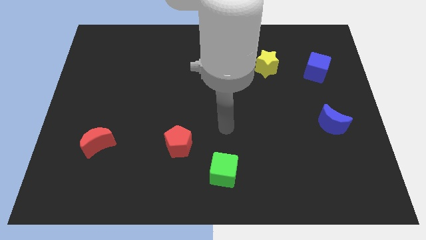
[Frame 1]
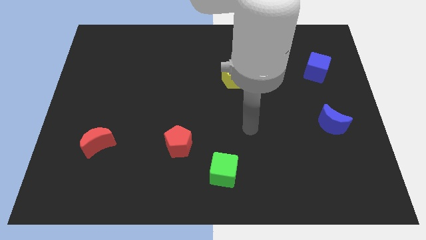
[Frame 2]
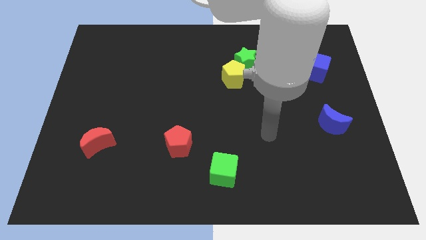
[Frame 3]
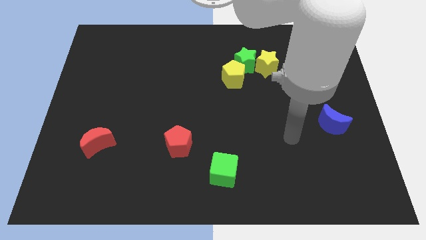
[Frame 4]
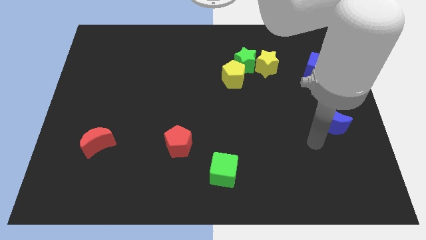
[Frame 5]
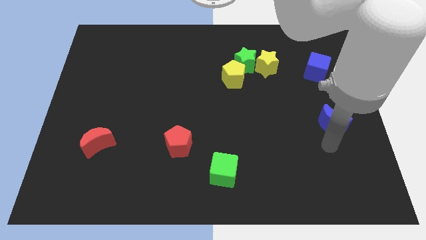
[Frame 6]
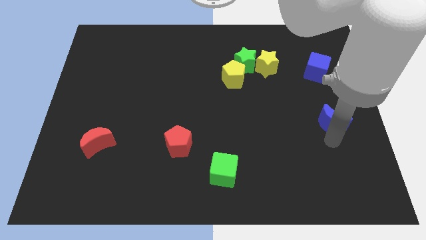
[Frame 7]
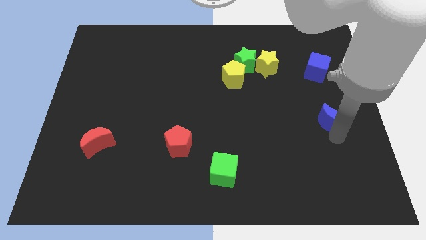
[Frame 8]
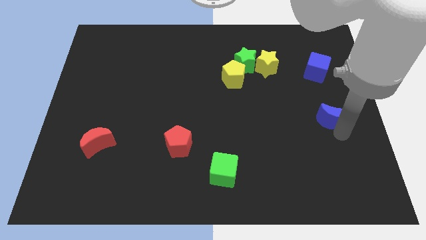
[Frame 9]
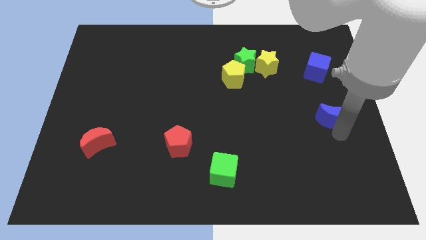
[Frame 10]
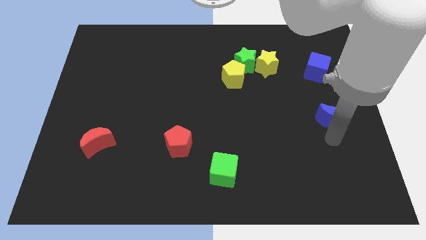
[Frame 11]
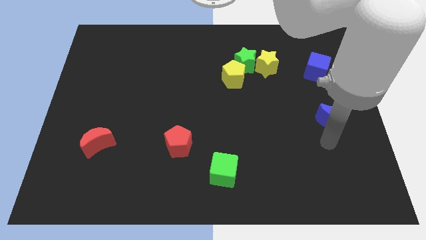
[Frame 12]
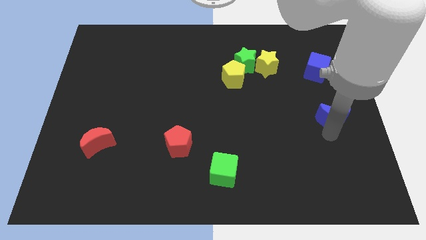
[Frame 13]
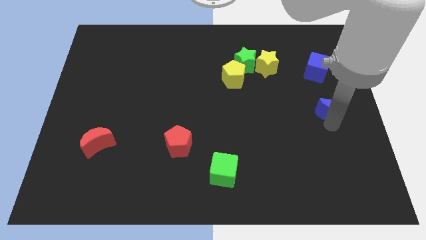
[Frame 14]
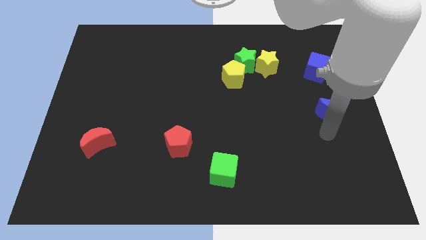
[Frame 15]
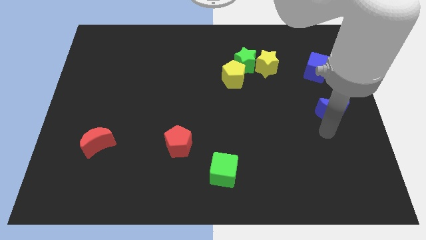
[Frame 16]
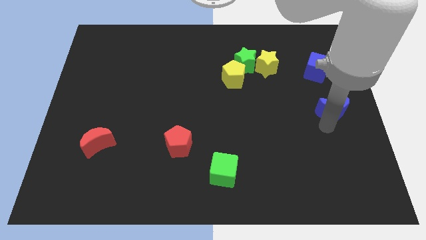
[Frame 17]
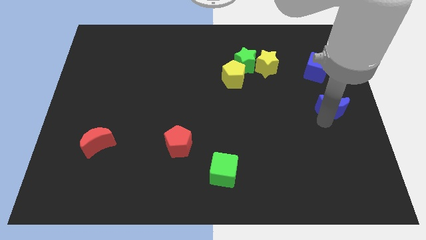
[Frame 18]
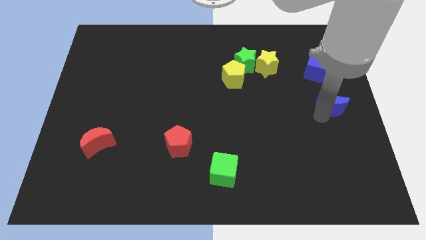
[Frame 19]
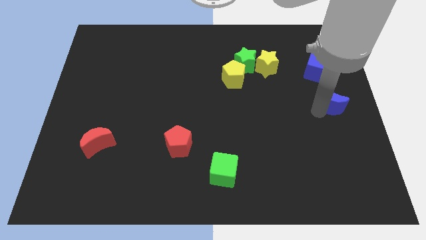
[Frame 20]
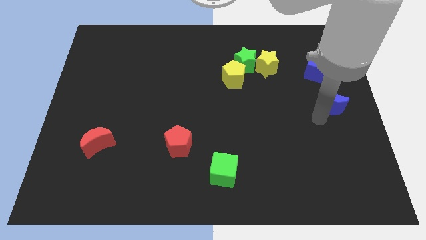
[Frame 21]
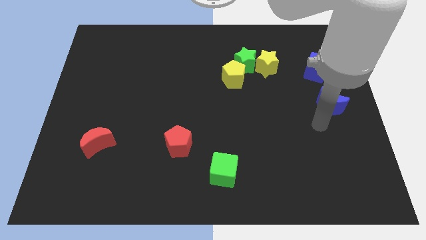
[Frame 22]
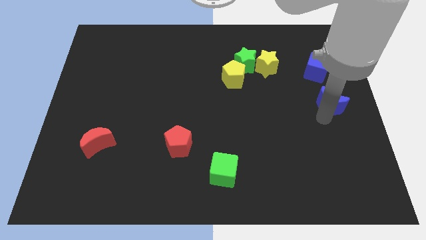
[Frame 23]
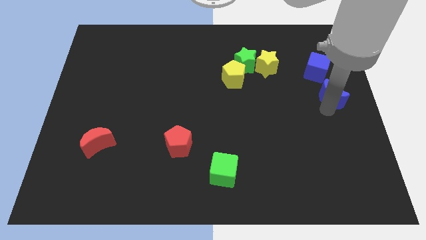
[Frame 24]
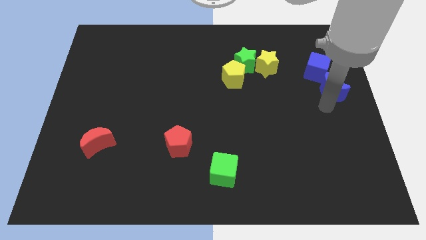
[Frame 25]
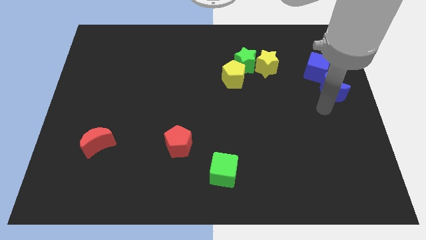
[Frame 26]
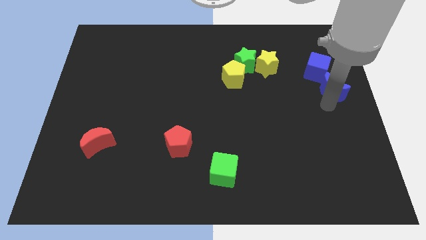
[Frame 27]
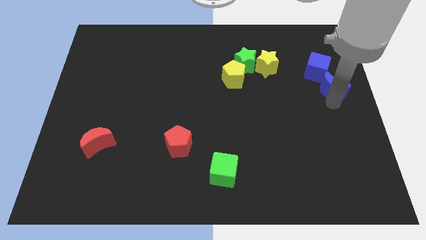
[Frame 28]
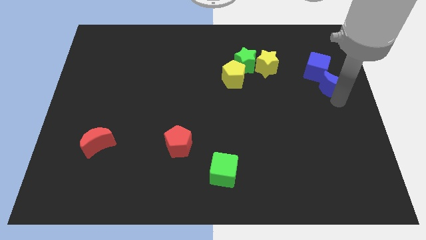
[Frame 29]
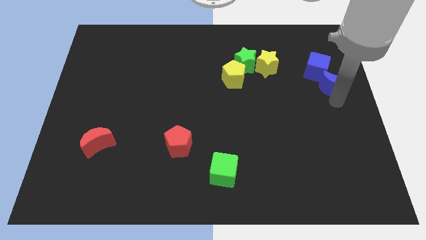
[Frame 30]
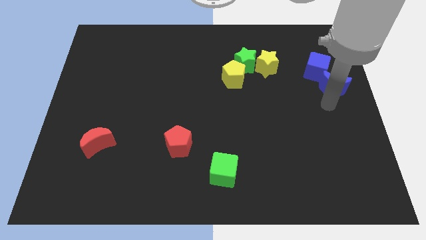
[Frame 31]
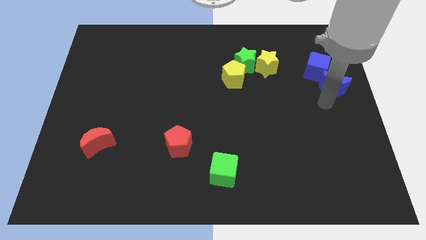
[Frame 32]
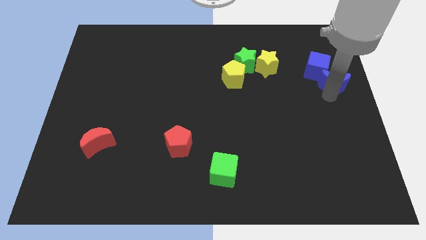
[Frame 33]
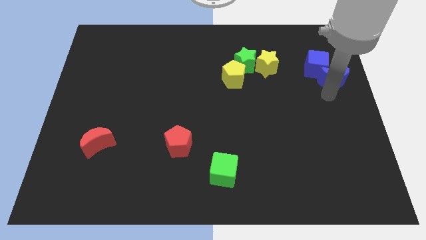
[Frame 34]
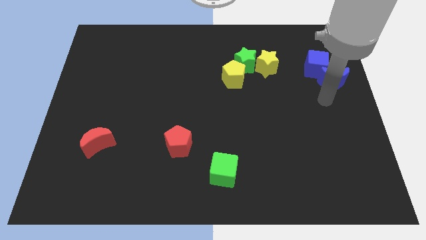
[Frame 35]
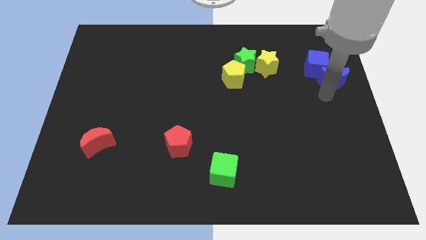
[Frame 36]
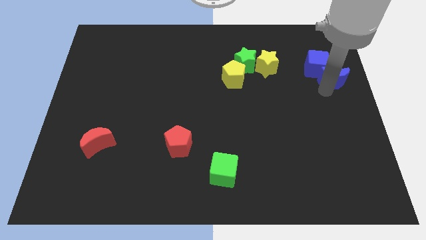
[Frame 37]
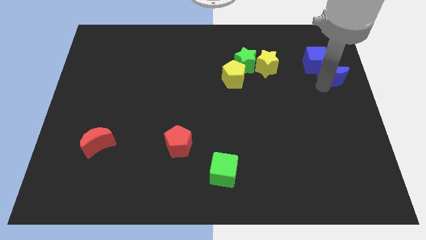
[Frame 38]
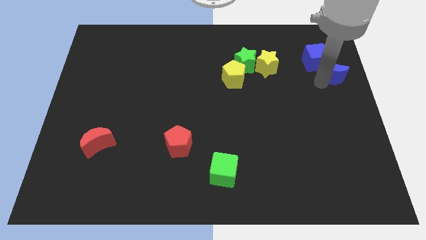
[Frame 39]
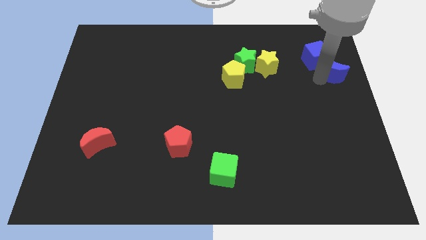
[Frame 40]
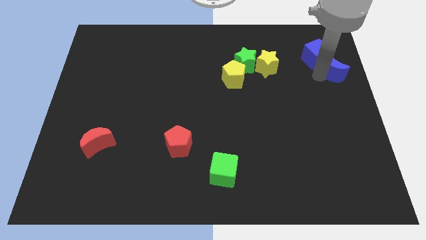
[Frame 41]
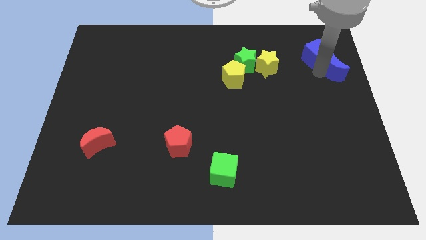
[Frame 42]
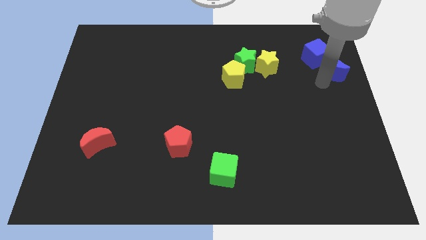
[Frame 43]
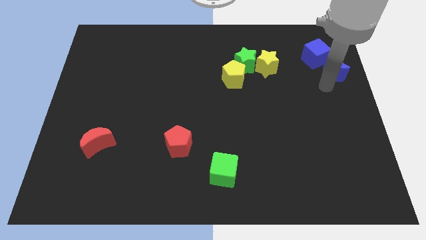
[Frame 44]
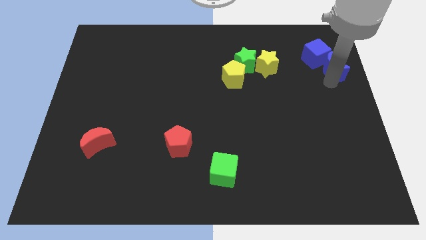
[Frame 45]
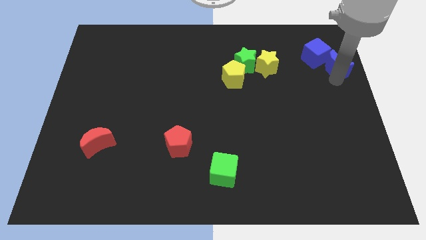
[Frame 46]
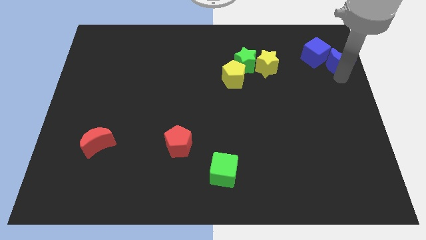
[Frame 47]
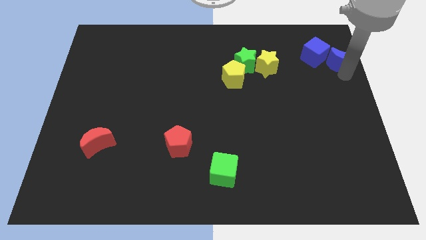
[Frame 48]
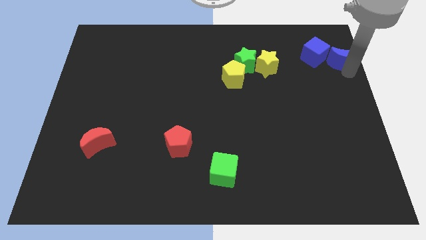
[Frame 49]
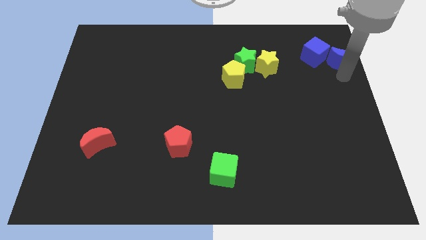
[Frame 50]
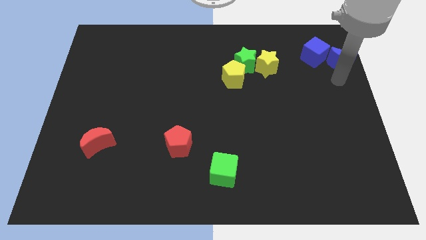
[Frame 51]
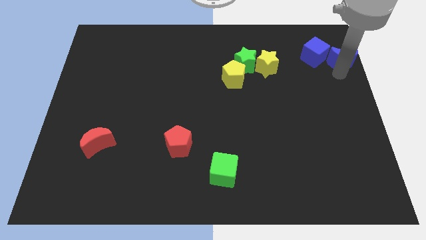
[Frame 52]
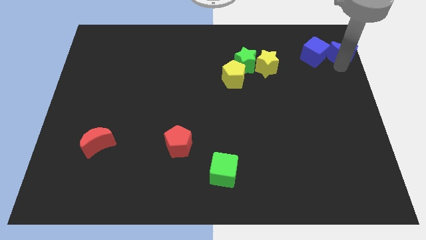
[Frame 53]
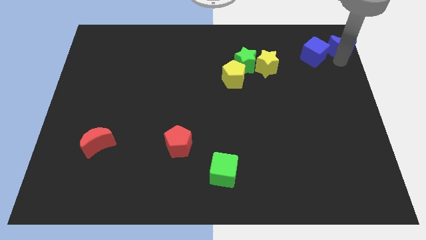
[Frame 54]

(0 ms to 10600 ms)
slide the blue moon to the top right of the board

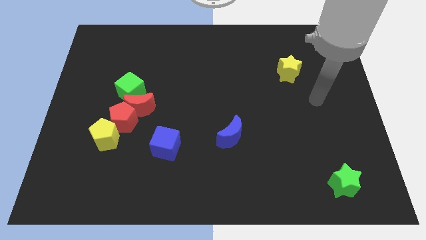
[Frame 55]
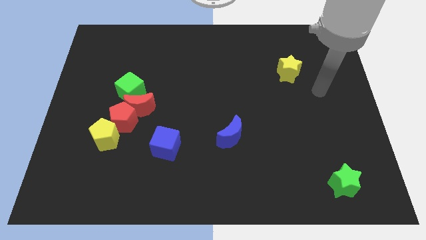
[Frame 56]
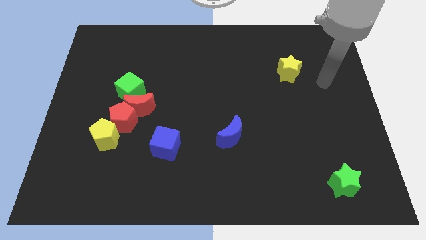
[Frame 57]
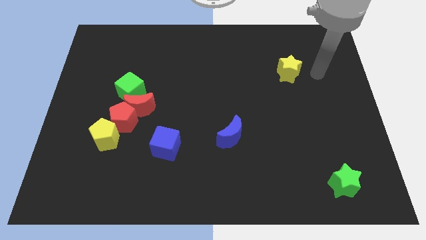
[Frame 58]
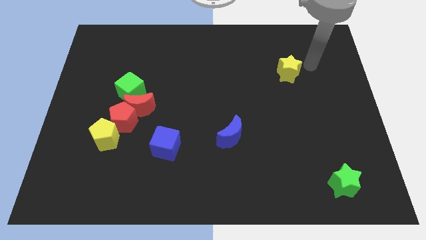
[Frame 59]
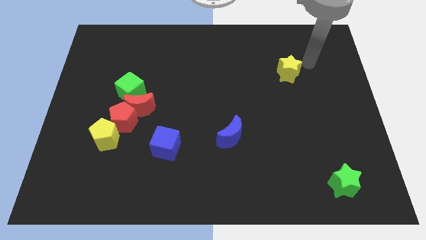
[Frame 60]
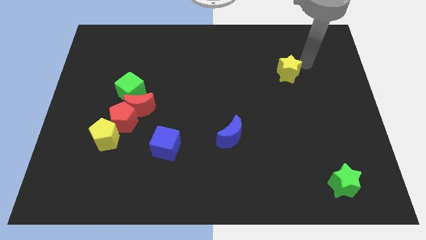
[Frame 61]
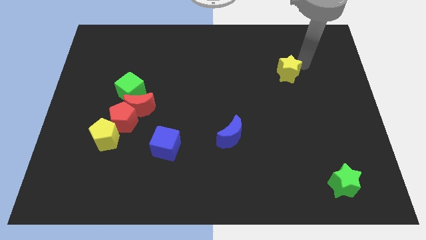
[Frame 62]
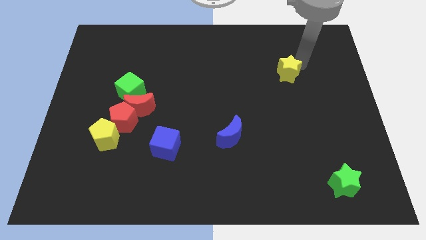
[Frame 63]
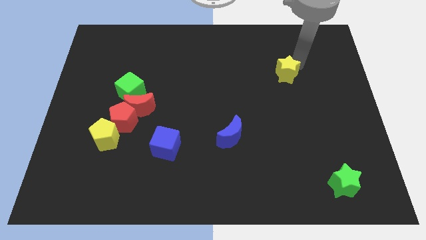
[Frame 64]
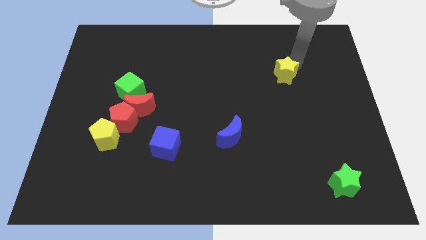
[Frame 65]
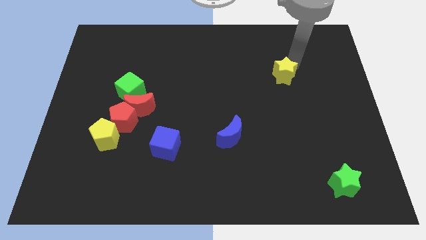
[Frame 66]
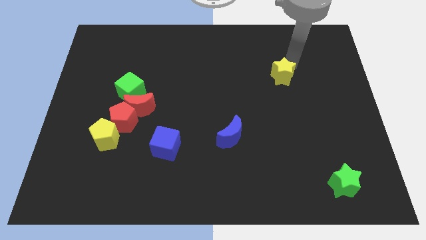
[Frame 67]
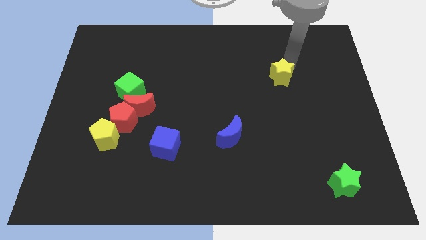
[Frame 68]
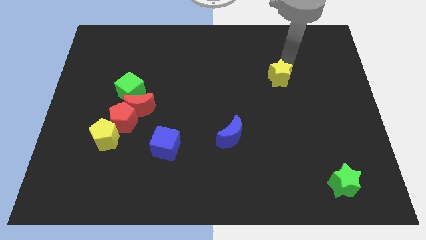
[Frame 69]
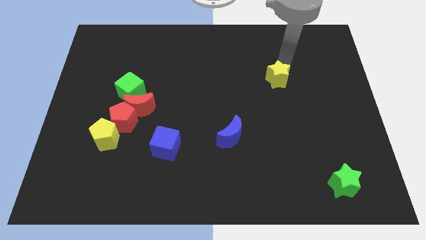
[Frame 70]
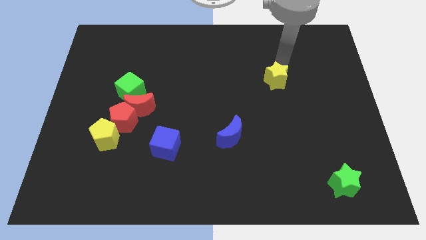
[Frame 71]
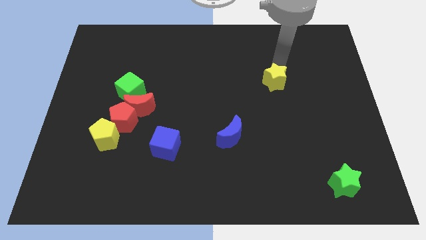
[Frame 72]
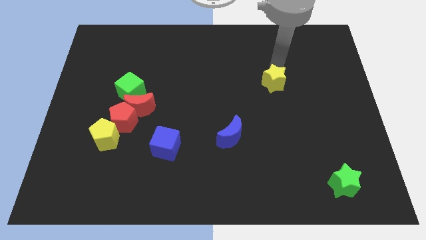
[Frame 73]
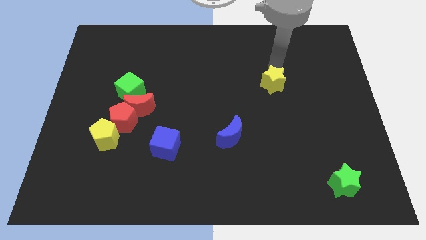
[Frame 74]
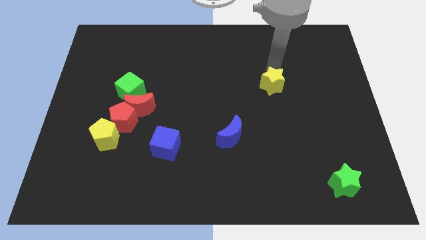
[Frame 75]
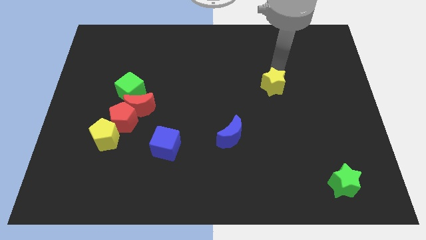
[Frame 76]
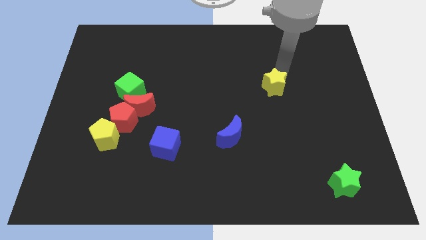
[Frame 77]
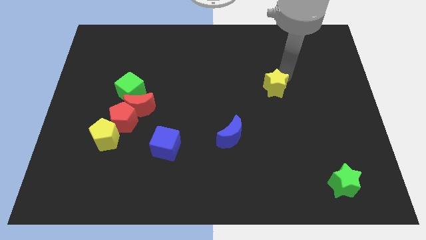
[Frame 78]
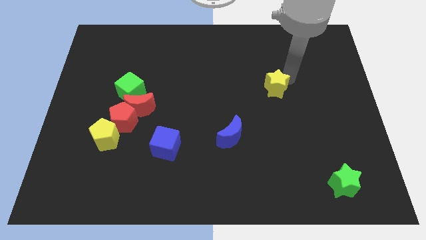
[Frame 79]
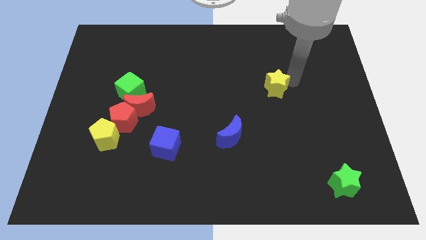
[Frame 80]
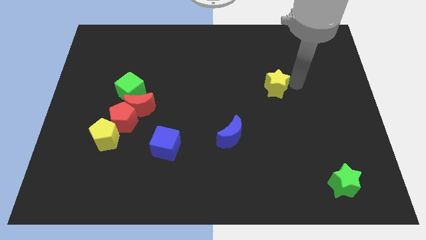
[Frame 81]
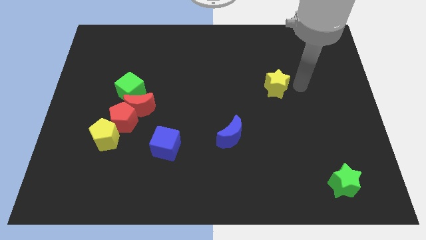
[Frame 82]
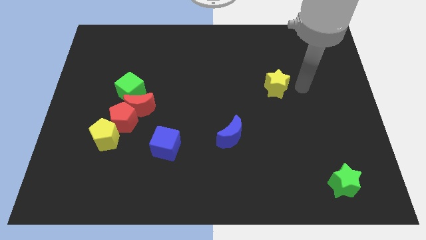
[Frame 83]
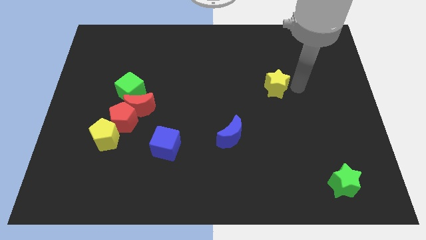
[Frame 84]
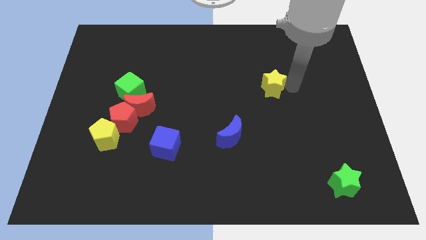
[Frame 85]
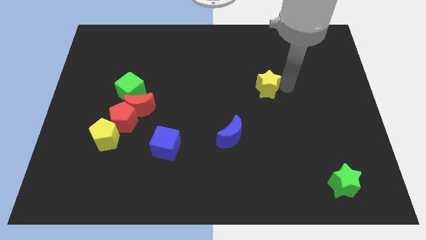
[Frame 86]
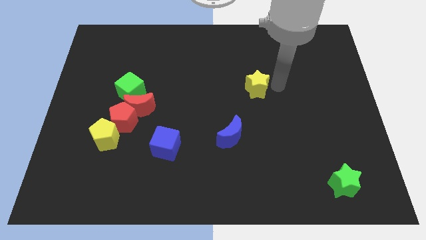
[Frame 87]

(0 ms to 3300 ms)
slide the yellow star to the middle of the board
